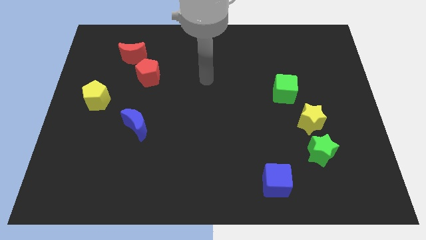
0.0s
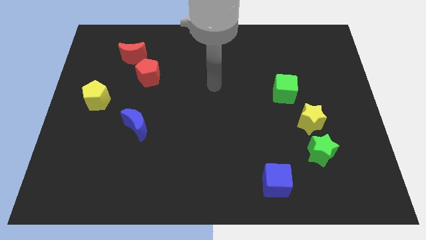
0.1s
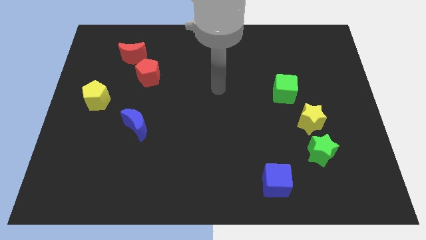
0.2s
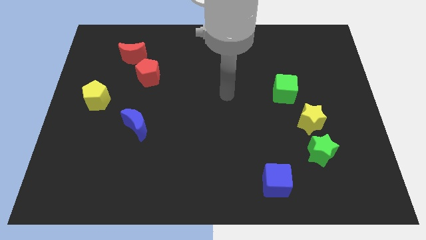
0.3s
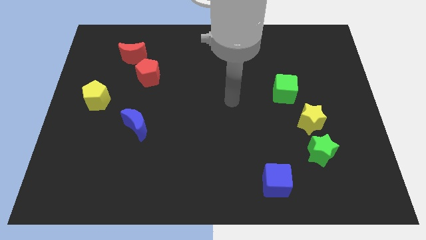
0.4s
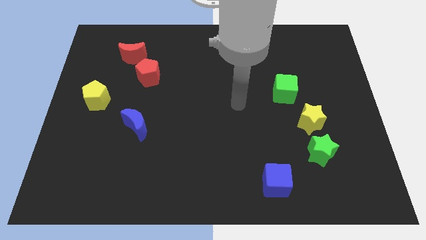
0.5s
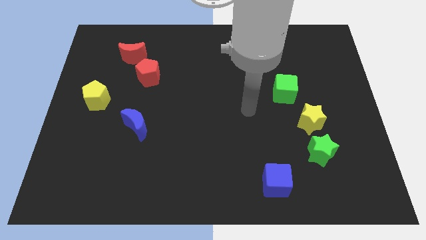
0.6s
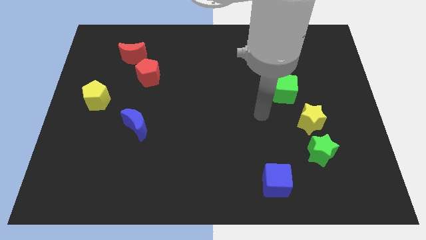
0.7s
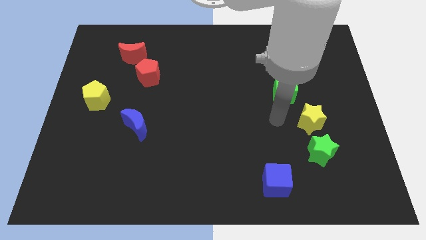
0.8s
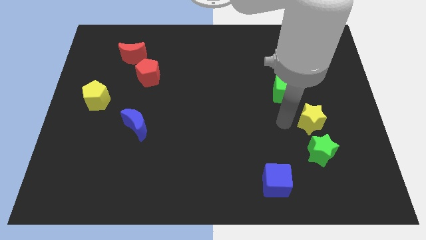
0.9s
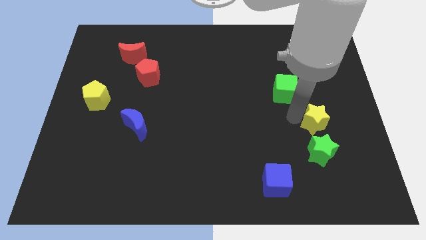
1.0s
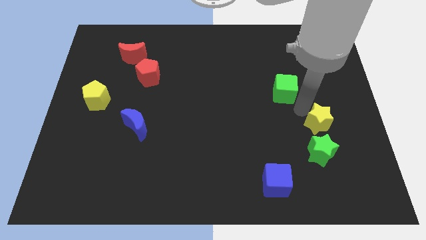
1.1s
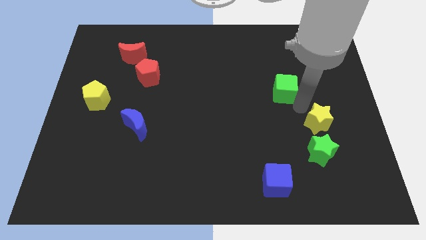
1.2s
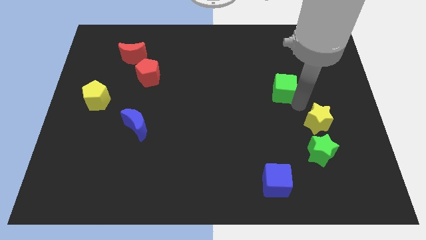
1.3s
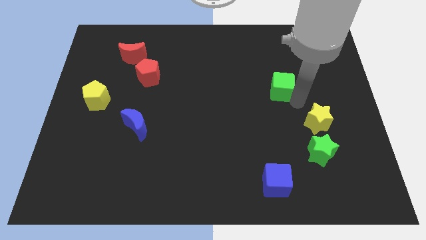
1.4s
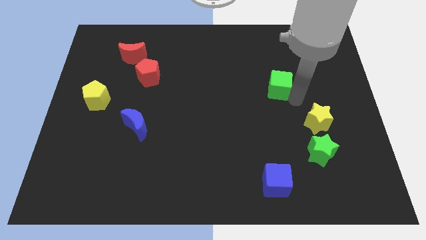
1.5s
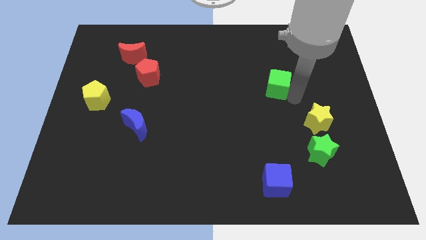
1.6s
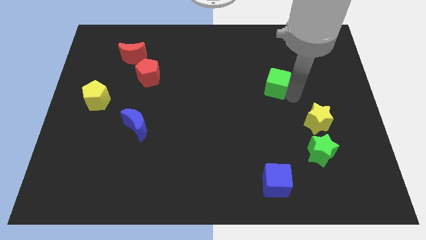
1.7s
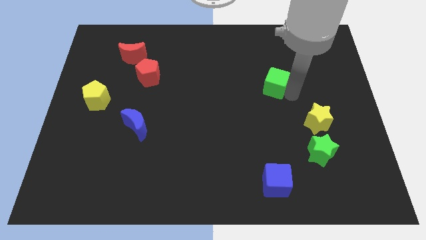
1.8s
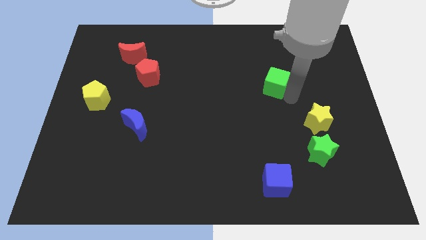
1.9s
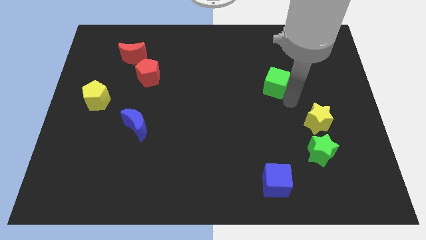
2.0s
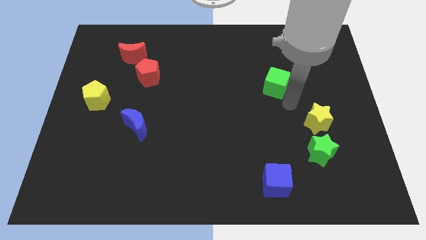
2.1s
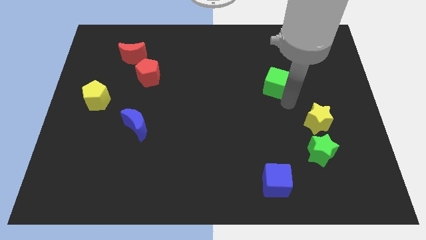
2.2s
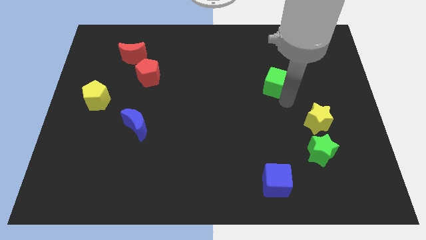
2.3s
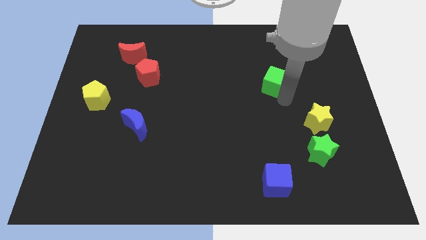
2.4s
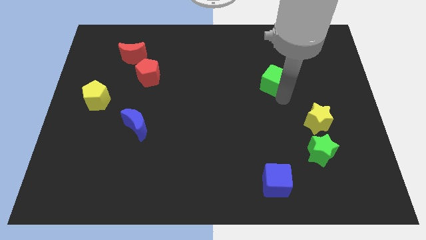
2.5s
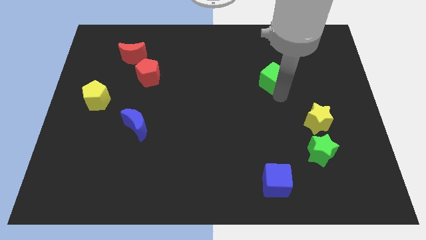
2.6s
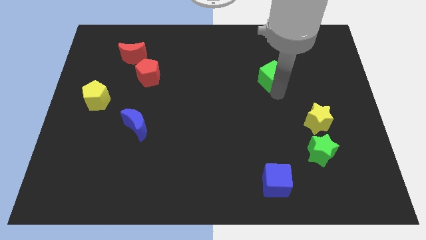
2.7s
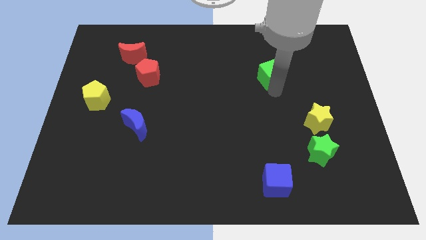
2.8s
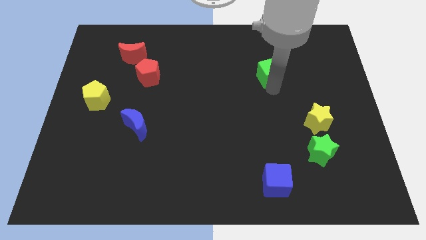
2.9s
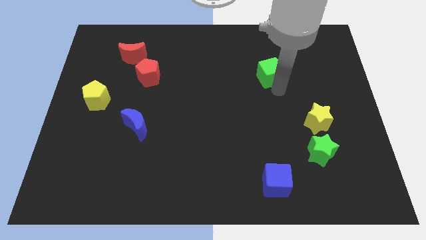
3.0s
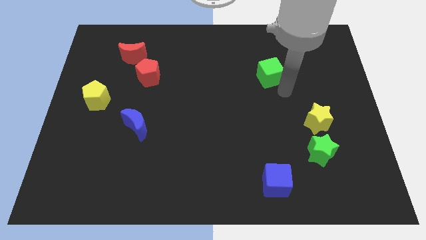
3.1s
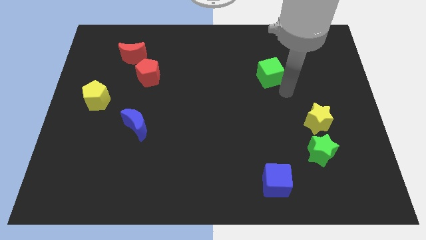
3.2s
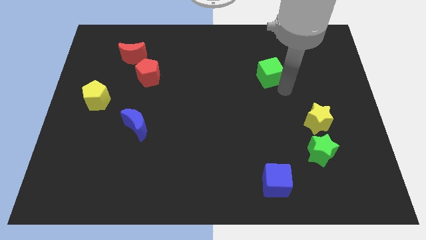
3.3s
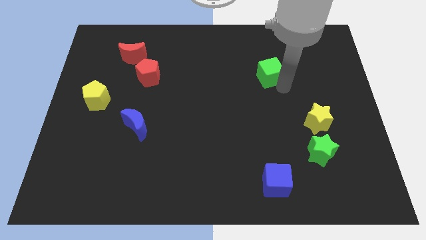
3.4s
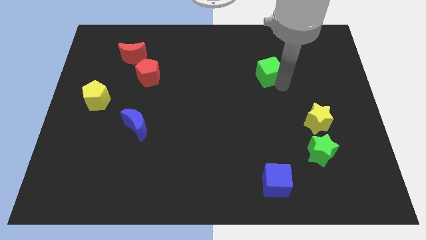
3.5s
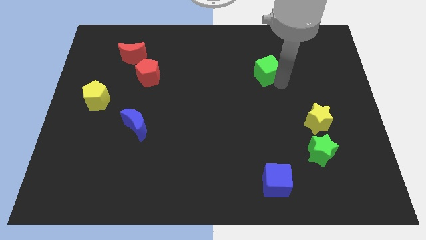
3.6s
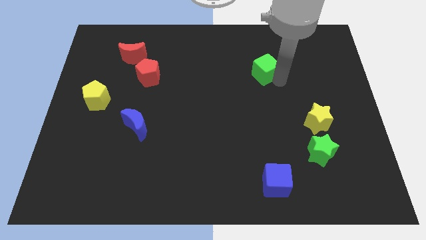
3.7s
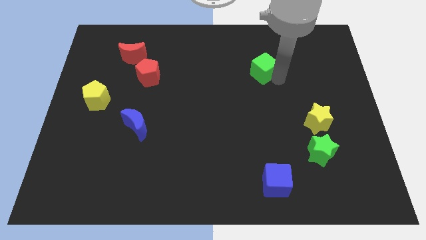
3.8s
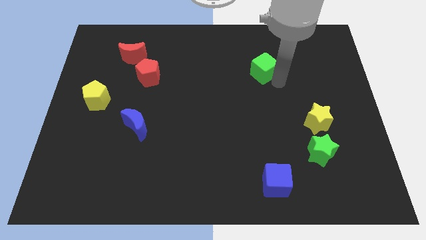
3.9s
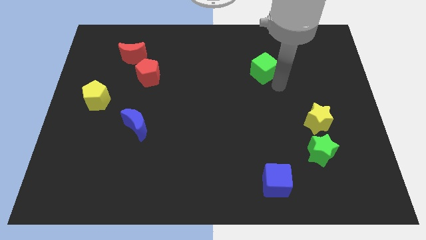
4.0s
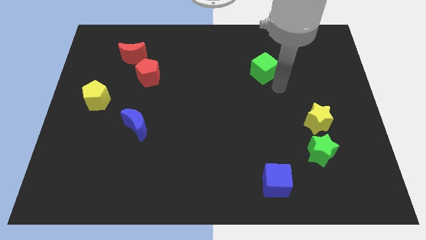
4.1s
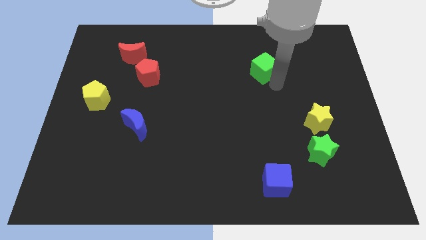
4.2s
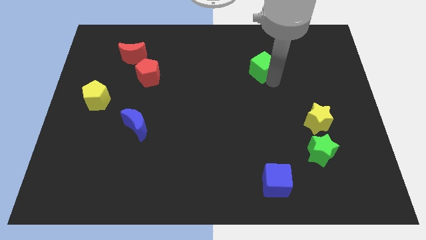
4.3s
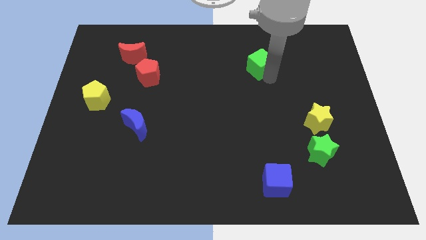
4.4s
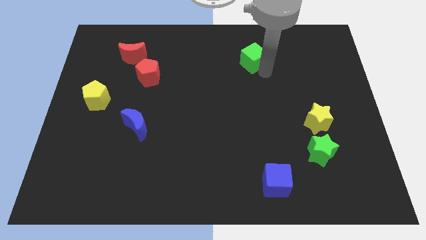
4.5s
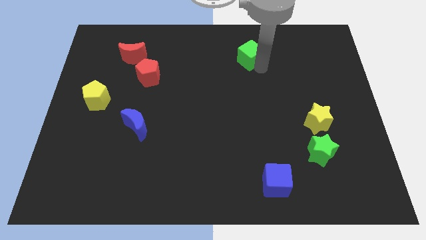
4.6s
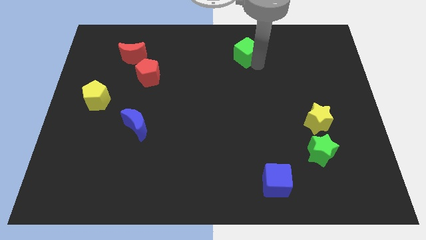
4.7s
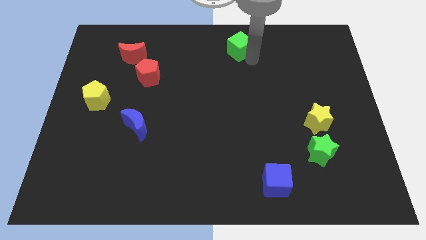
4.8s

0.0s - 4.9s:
slide the green cube to the top side

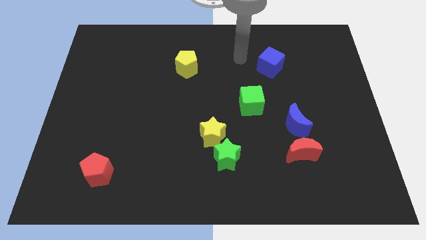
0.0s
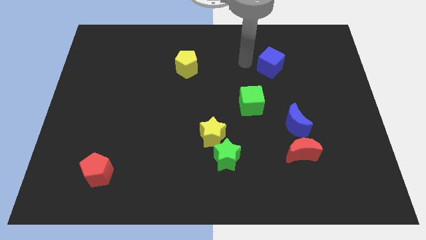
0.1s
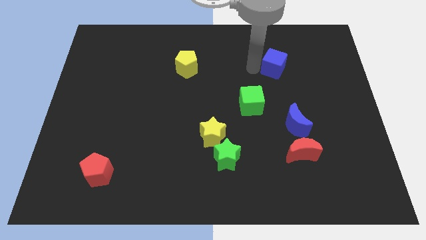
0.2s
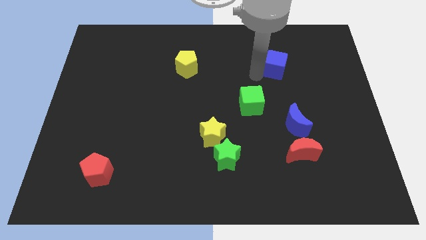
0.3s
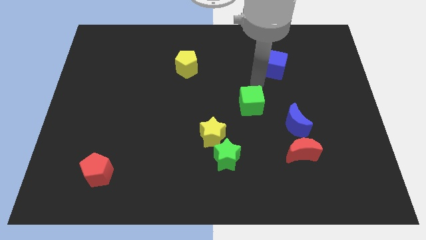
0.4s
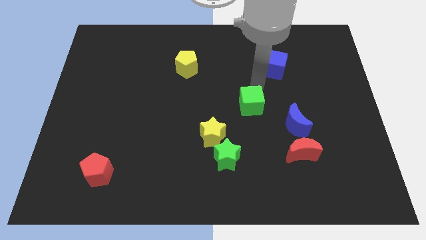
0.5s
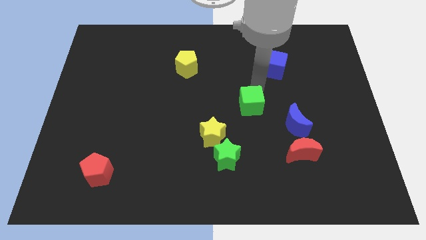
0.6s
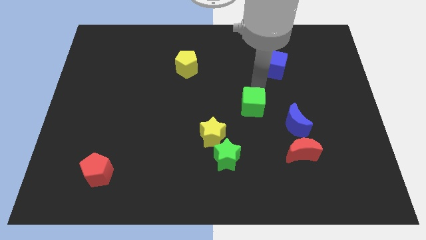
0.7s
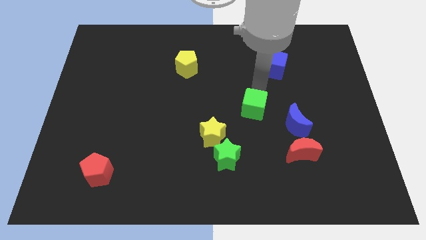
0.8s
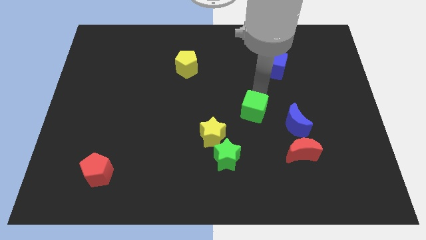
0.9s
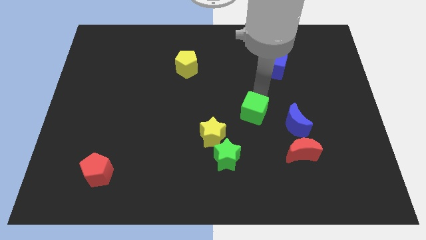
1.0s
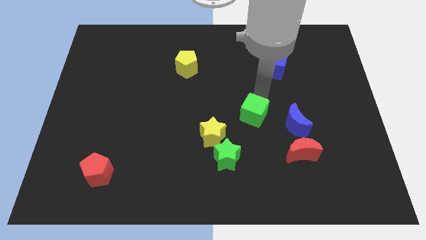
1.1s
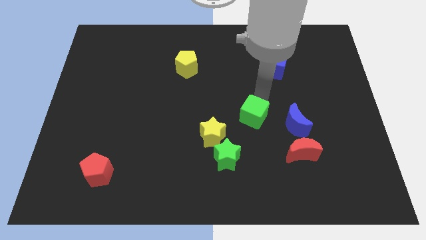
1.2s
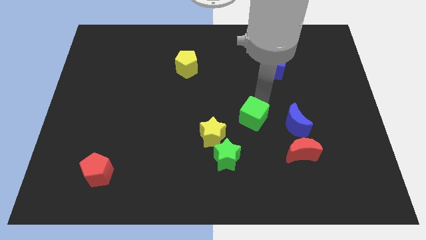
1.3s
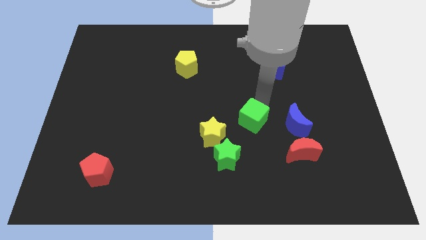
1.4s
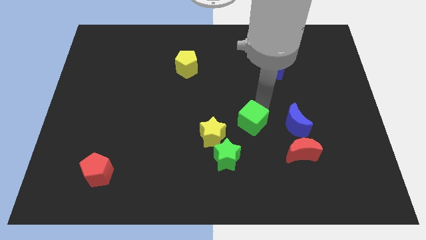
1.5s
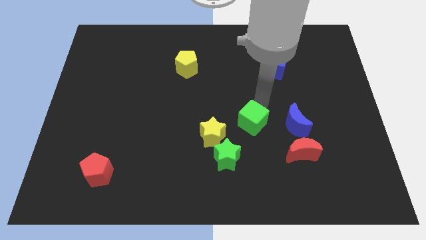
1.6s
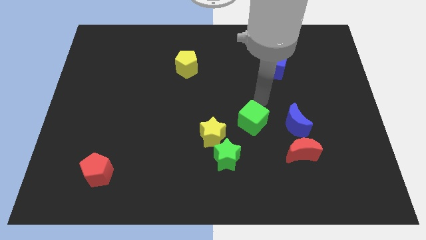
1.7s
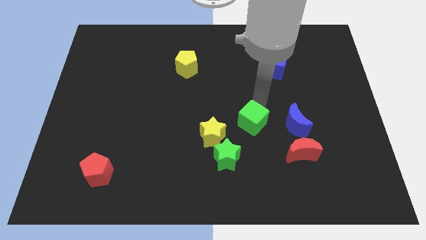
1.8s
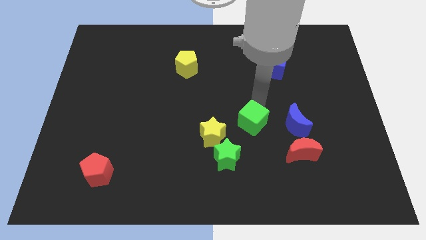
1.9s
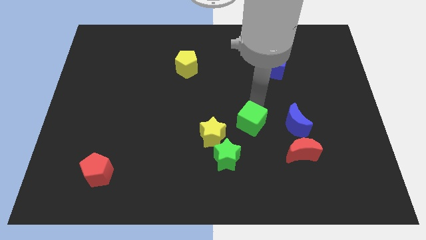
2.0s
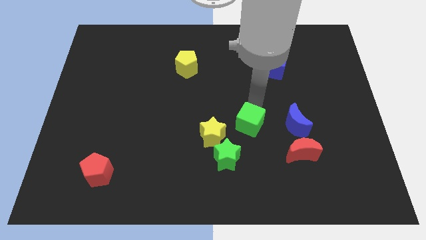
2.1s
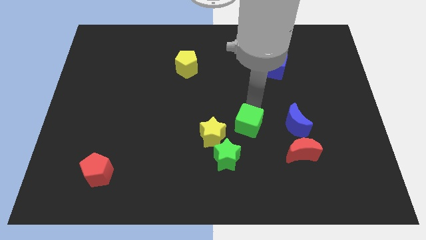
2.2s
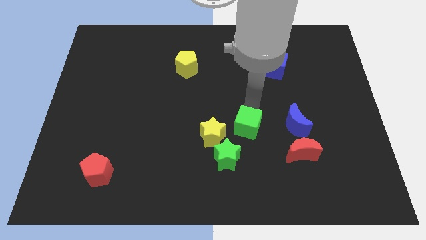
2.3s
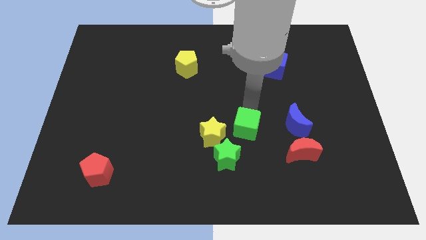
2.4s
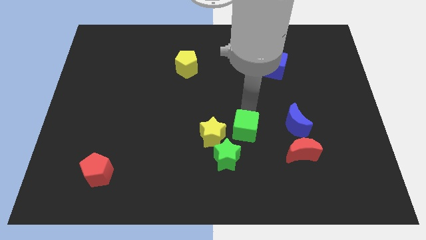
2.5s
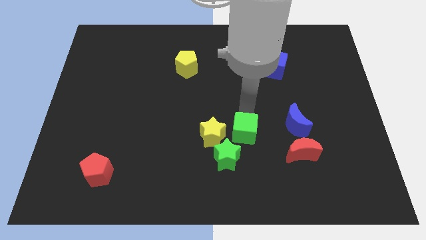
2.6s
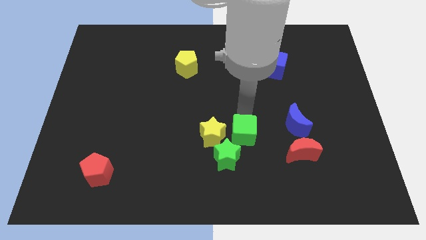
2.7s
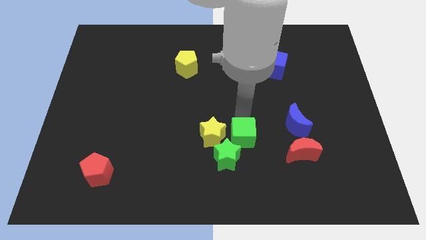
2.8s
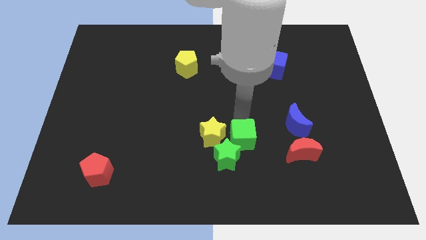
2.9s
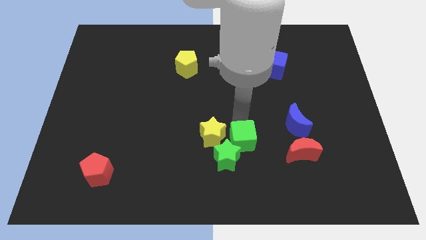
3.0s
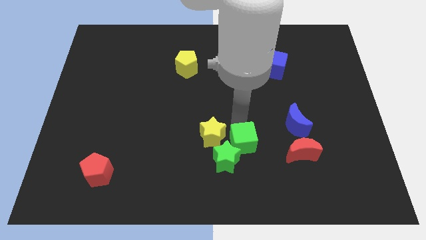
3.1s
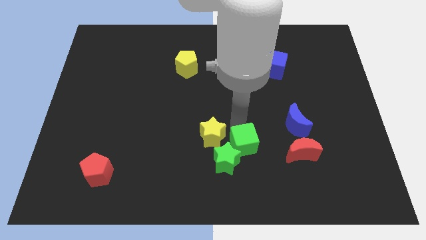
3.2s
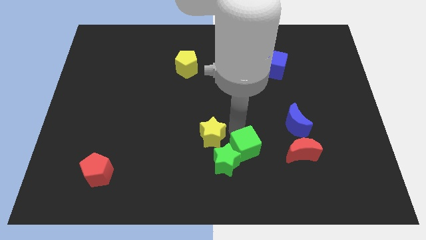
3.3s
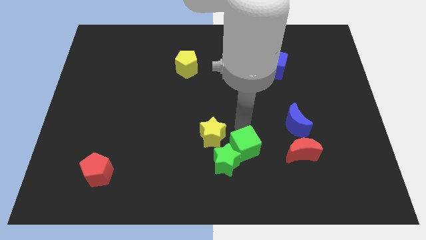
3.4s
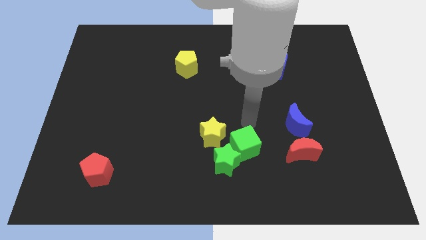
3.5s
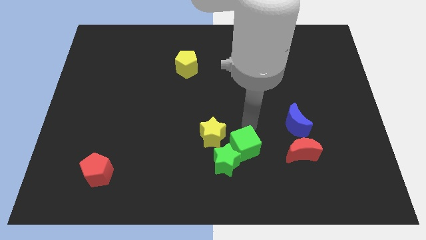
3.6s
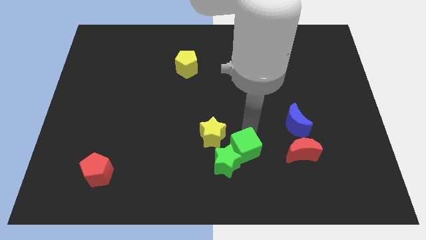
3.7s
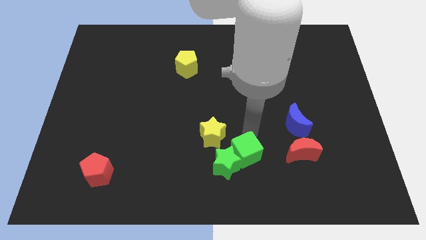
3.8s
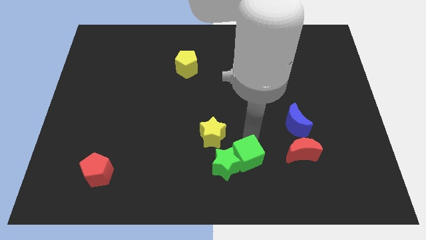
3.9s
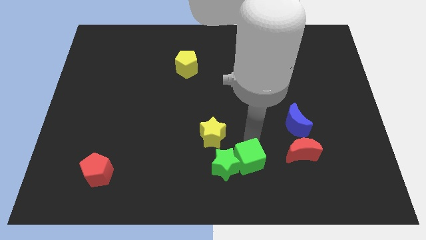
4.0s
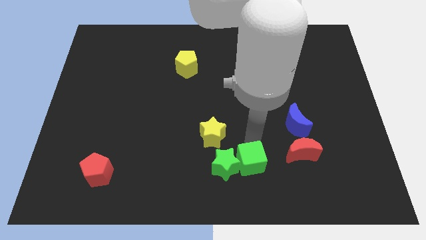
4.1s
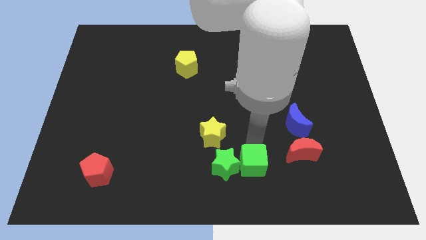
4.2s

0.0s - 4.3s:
move the green cube to the bottom
